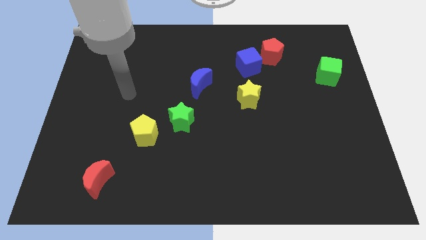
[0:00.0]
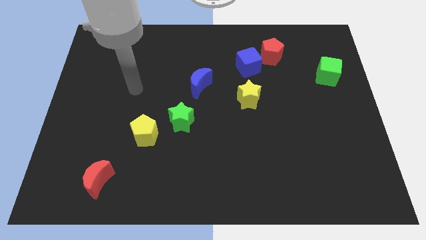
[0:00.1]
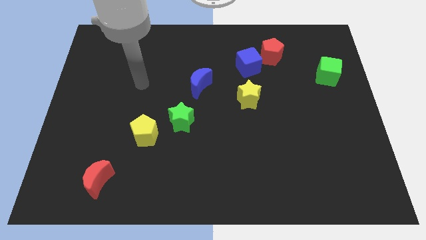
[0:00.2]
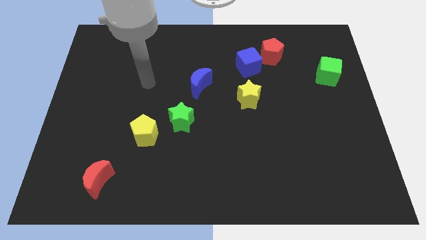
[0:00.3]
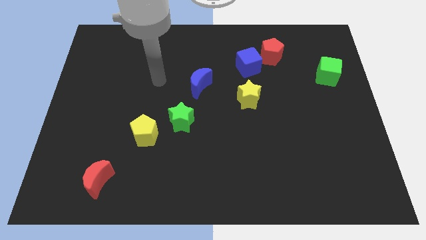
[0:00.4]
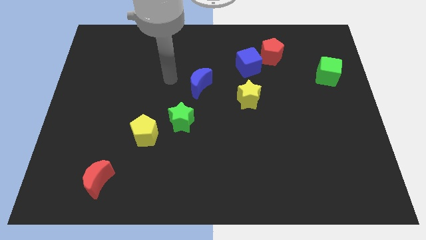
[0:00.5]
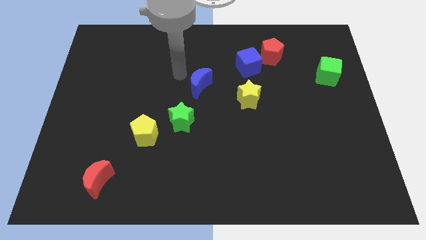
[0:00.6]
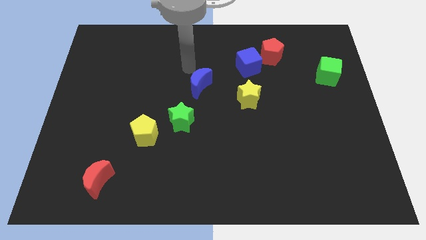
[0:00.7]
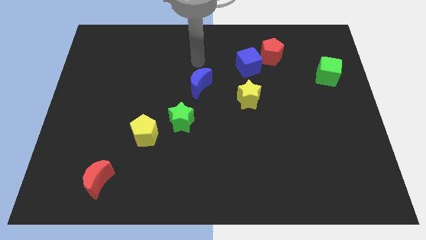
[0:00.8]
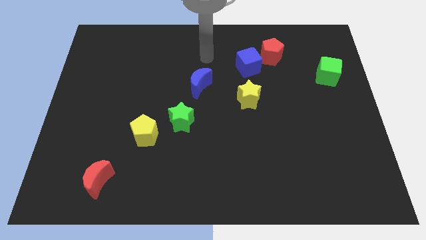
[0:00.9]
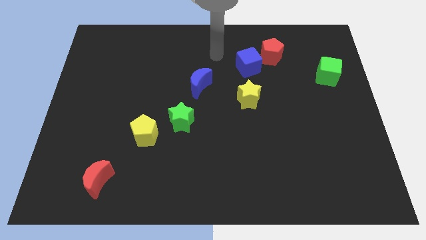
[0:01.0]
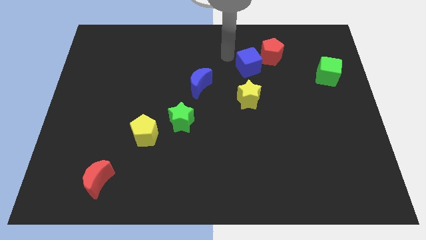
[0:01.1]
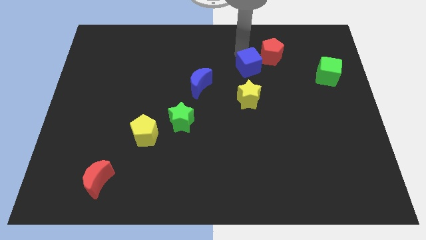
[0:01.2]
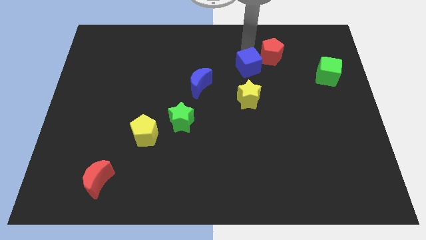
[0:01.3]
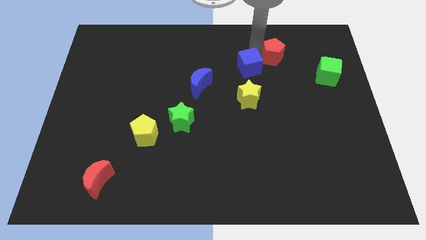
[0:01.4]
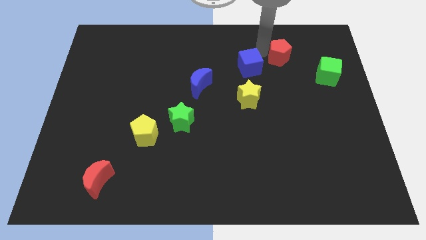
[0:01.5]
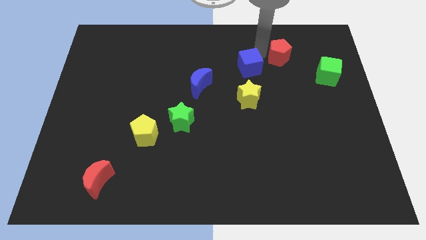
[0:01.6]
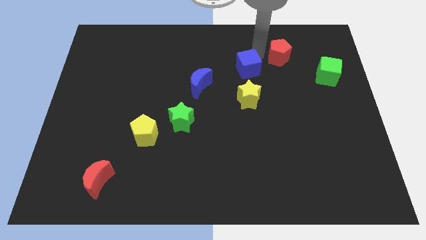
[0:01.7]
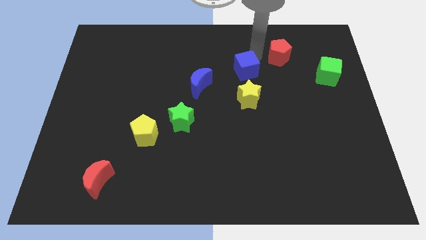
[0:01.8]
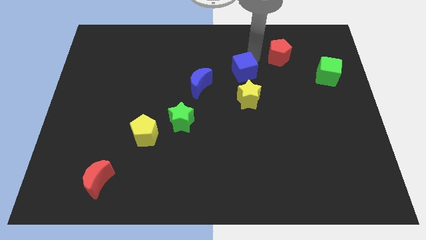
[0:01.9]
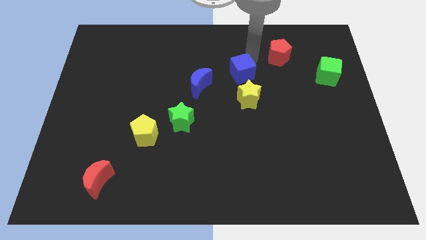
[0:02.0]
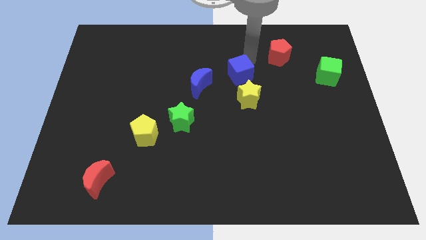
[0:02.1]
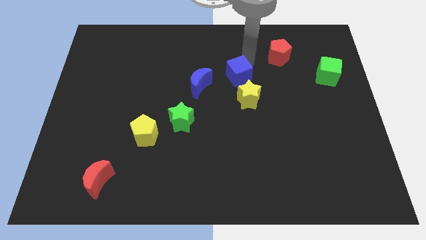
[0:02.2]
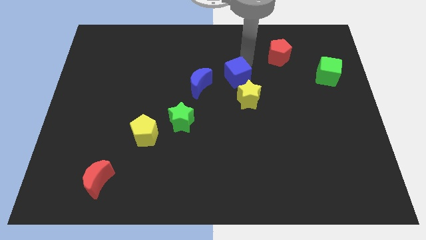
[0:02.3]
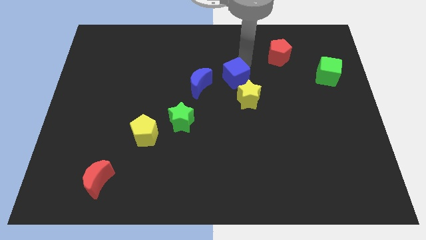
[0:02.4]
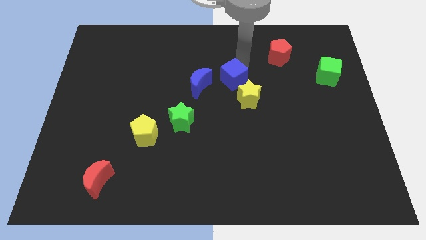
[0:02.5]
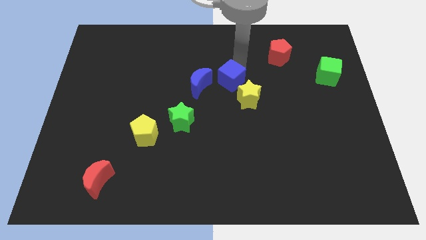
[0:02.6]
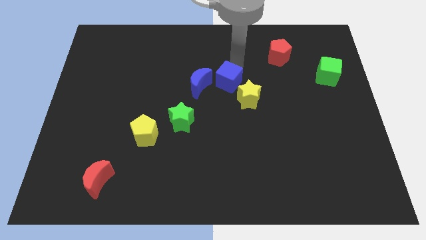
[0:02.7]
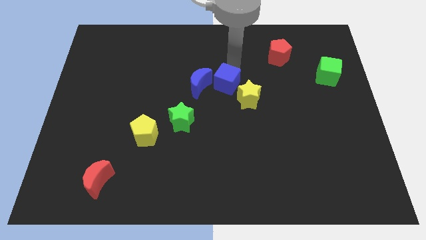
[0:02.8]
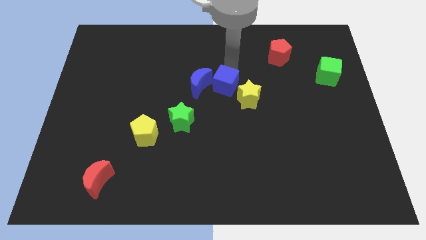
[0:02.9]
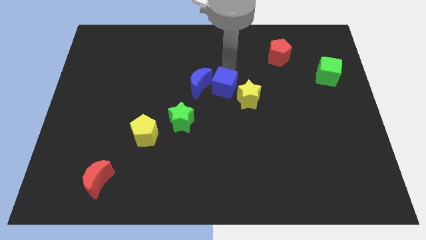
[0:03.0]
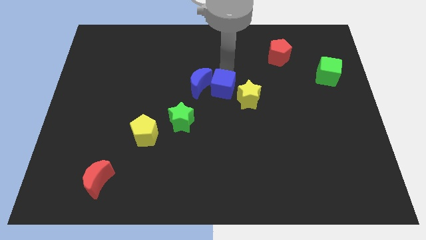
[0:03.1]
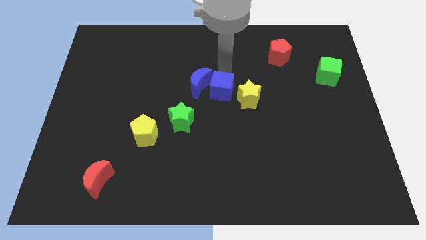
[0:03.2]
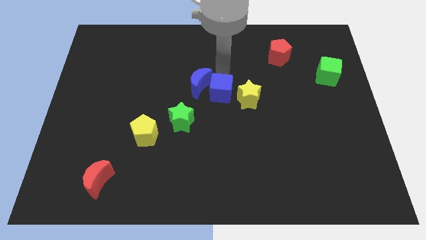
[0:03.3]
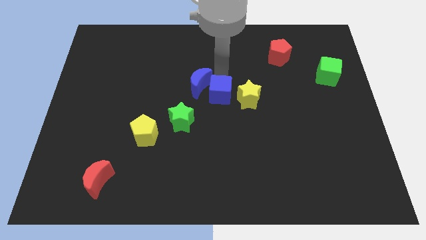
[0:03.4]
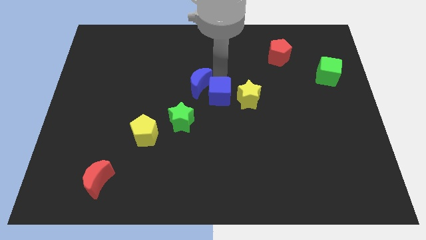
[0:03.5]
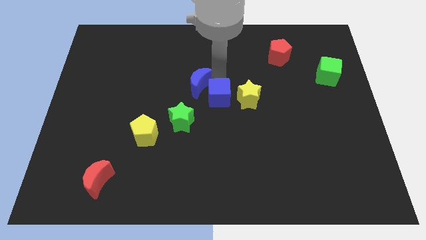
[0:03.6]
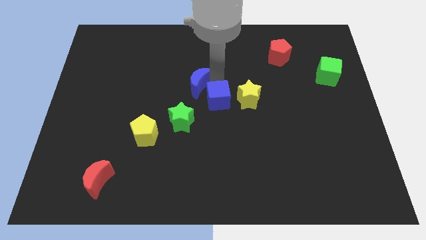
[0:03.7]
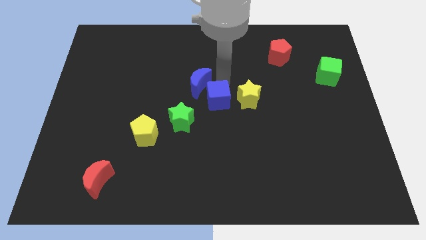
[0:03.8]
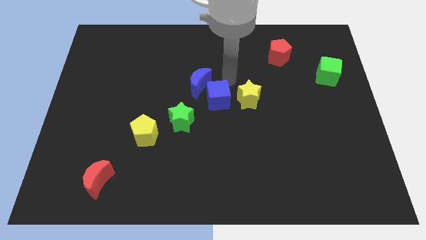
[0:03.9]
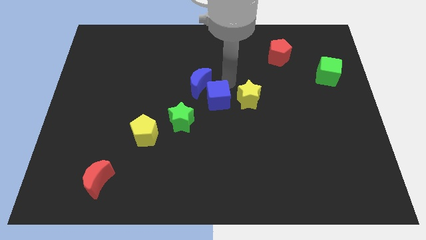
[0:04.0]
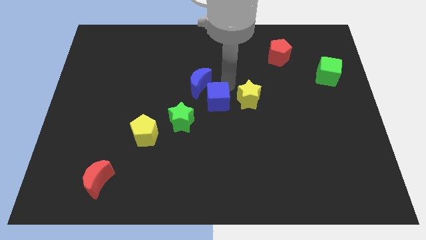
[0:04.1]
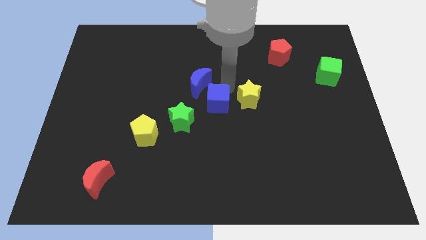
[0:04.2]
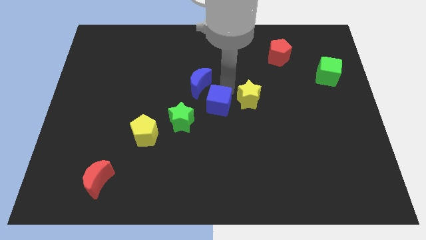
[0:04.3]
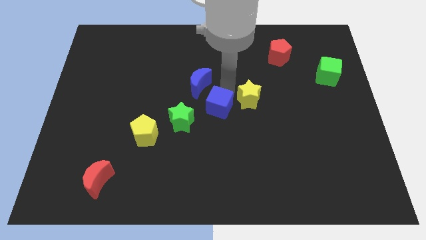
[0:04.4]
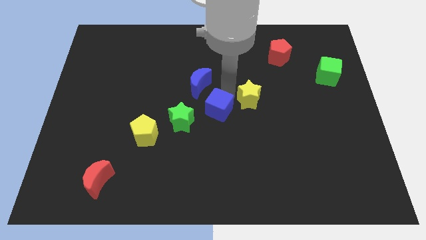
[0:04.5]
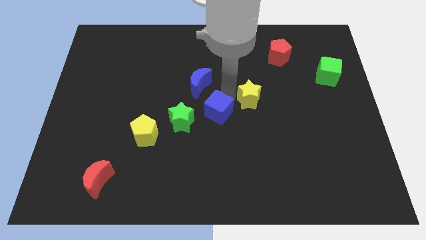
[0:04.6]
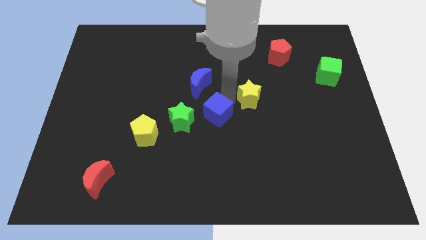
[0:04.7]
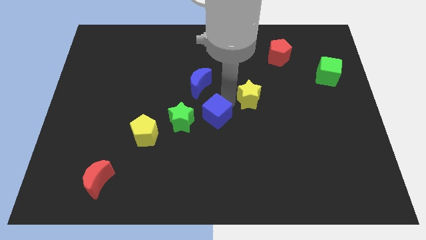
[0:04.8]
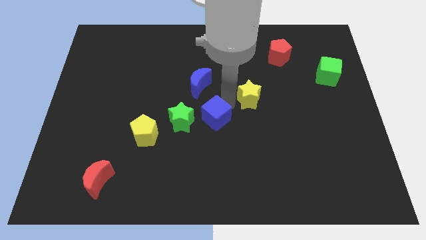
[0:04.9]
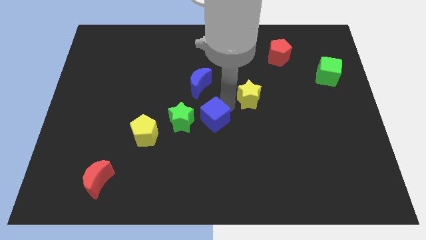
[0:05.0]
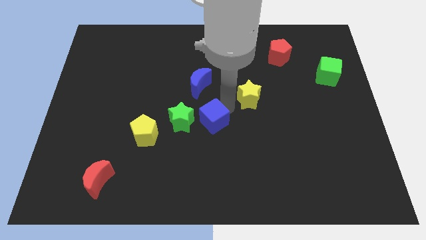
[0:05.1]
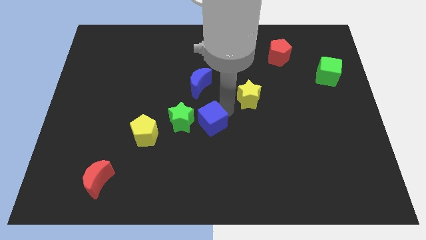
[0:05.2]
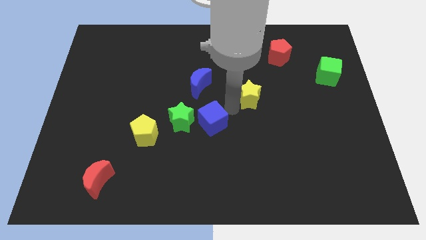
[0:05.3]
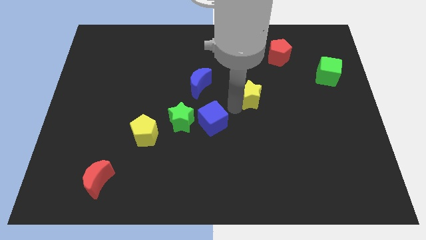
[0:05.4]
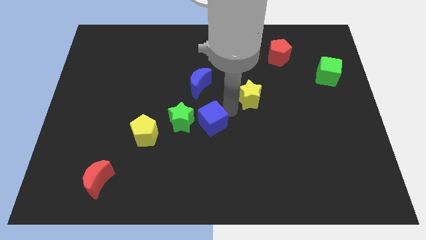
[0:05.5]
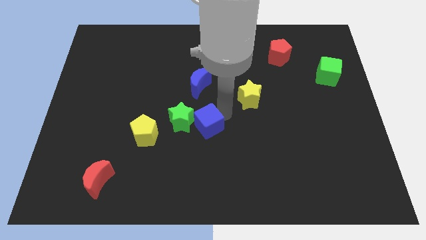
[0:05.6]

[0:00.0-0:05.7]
put the blue cube right of the yellow pentagon

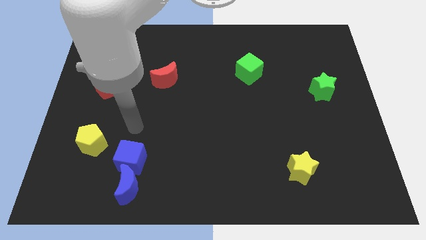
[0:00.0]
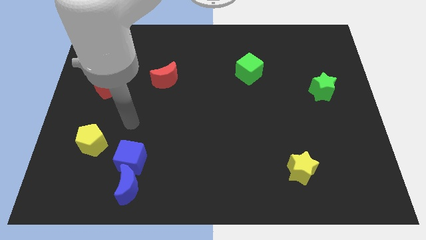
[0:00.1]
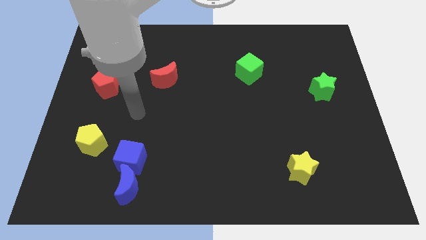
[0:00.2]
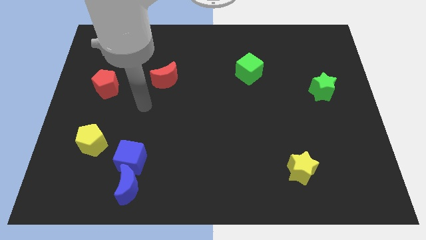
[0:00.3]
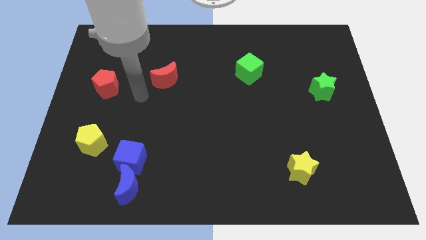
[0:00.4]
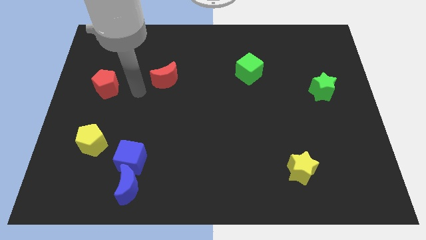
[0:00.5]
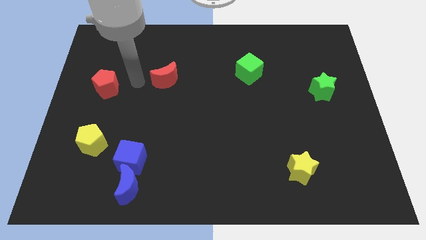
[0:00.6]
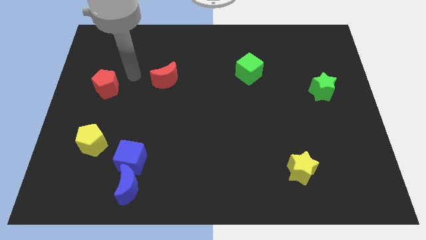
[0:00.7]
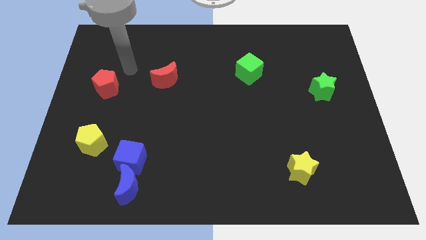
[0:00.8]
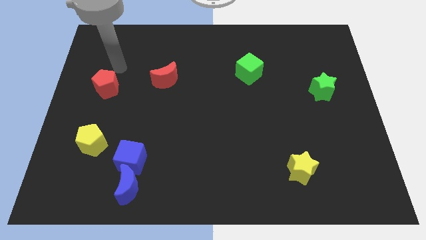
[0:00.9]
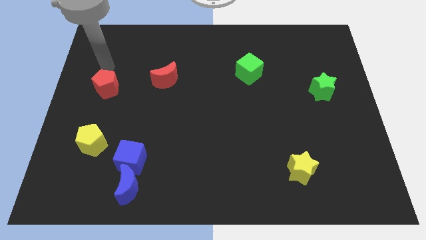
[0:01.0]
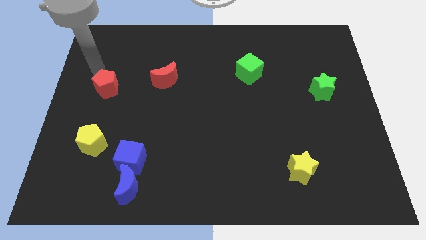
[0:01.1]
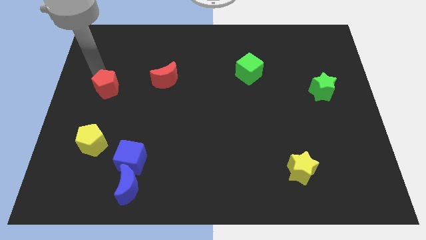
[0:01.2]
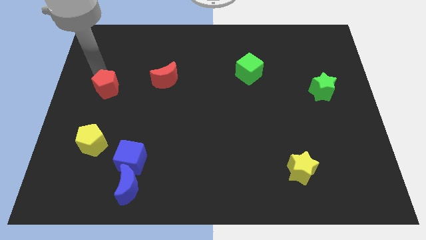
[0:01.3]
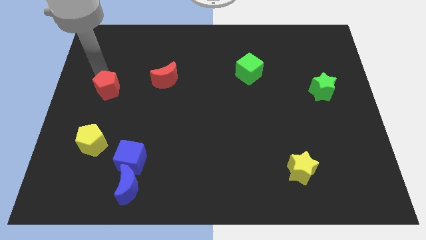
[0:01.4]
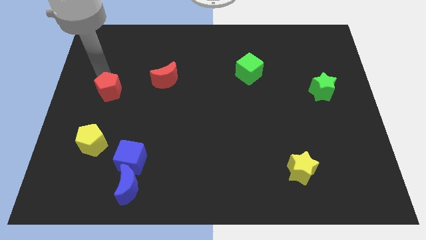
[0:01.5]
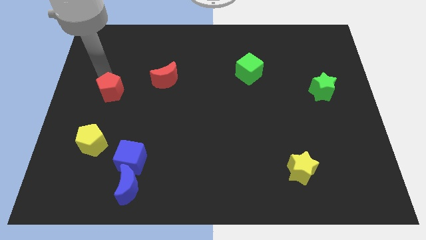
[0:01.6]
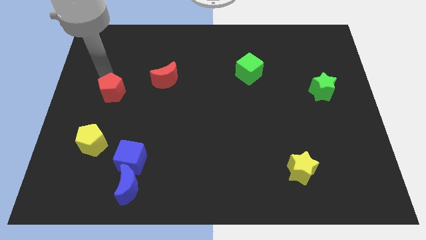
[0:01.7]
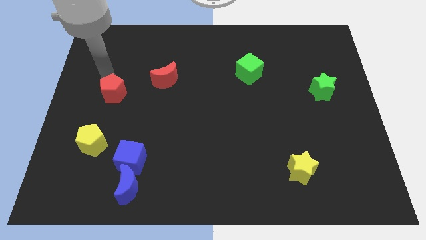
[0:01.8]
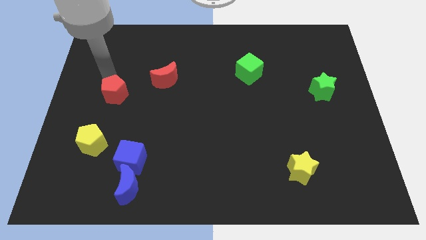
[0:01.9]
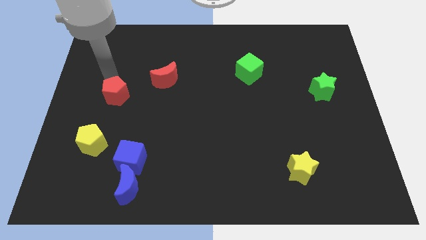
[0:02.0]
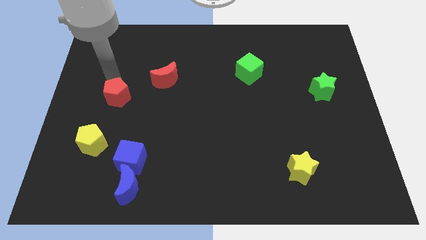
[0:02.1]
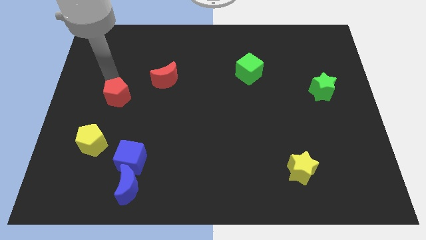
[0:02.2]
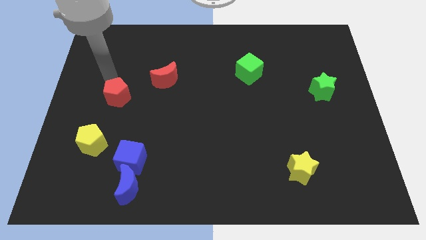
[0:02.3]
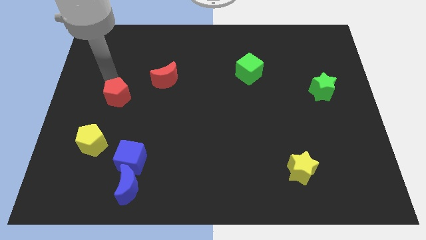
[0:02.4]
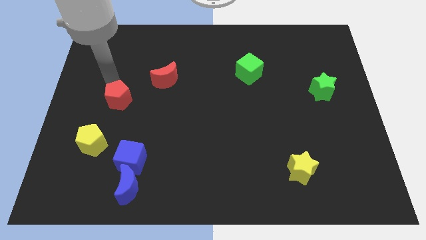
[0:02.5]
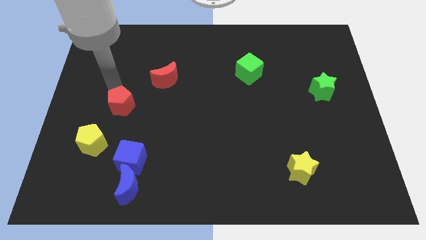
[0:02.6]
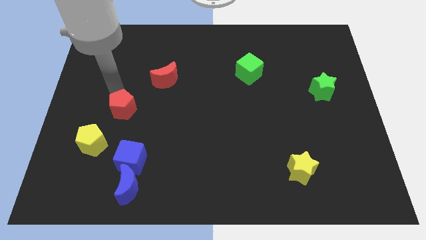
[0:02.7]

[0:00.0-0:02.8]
slide the red pentagon to the top side of the blue cube
